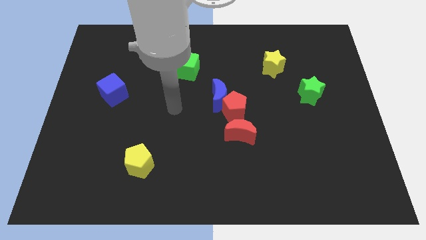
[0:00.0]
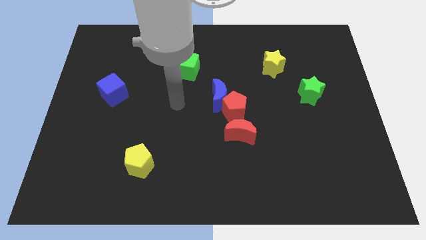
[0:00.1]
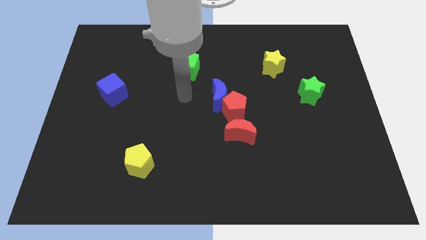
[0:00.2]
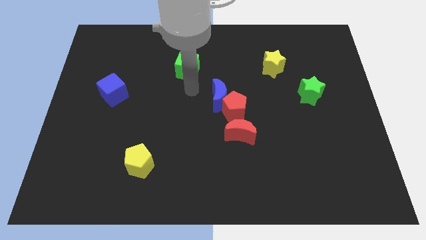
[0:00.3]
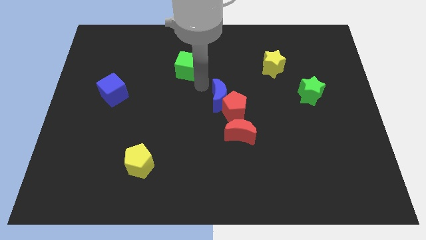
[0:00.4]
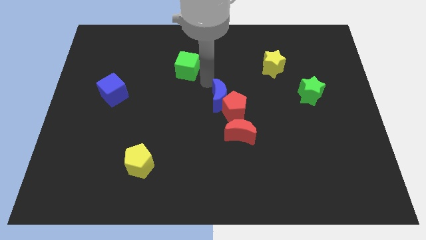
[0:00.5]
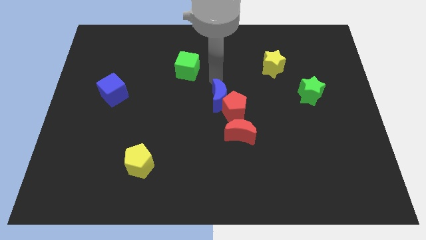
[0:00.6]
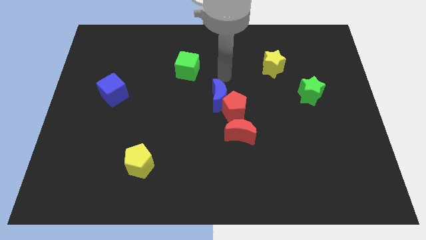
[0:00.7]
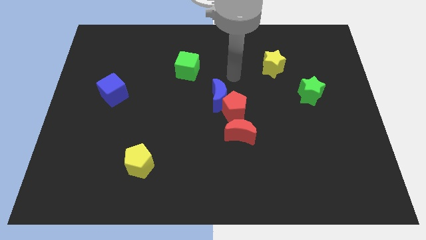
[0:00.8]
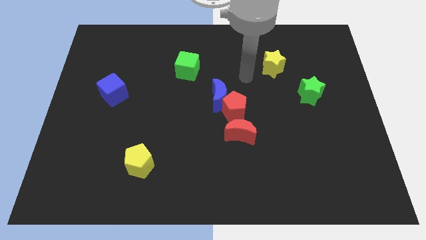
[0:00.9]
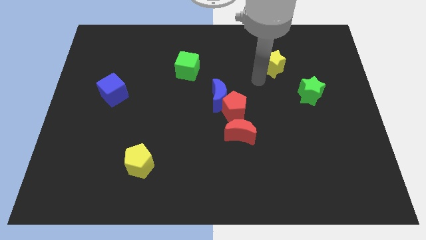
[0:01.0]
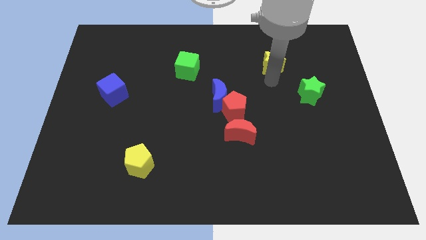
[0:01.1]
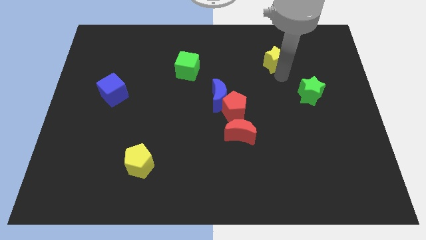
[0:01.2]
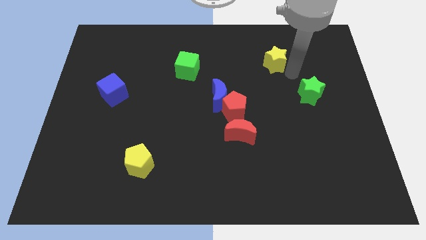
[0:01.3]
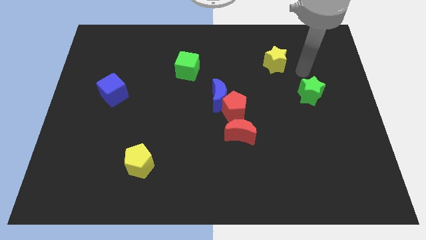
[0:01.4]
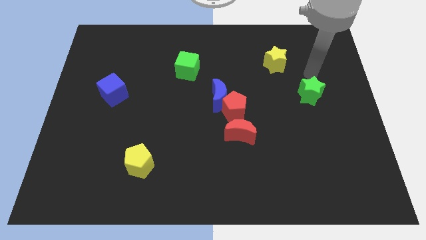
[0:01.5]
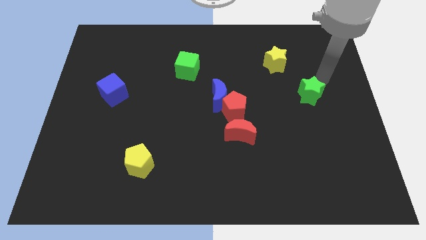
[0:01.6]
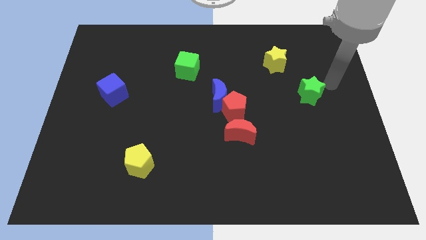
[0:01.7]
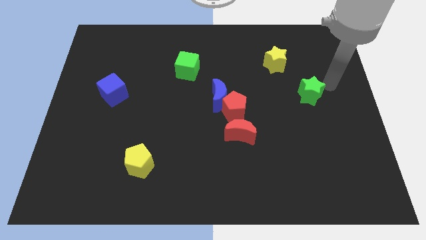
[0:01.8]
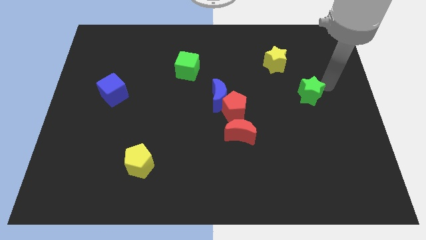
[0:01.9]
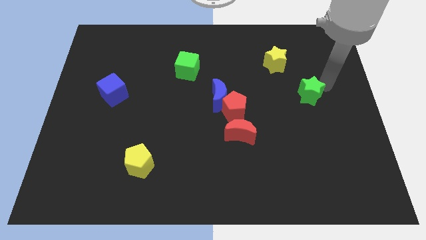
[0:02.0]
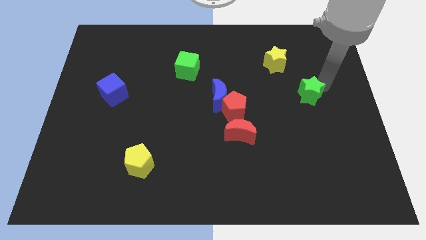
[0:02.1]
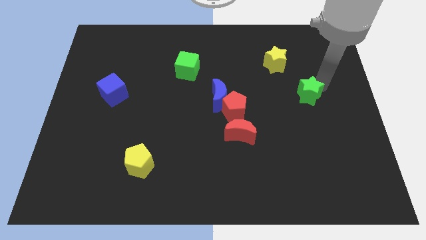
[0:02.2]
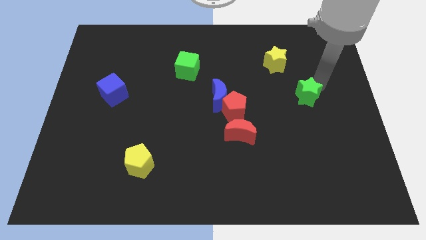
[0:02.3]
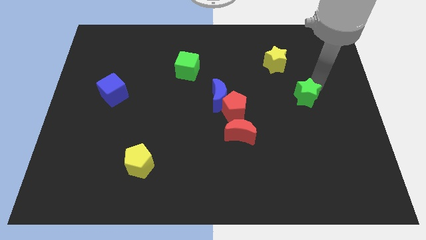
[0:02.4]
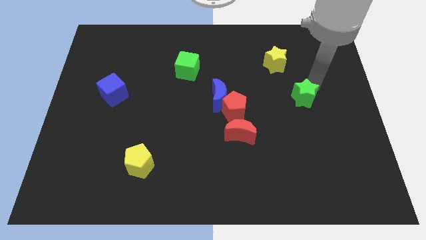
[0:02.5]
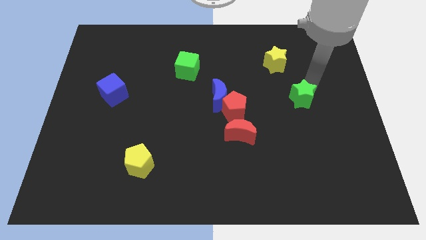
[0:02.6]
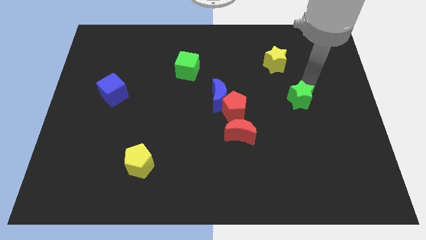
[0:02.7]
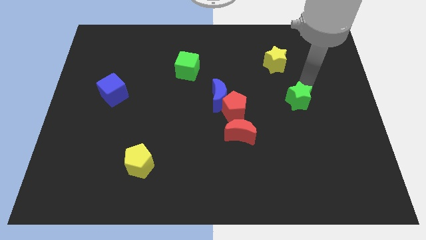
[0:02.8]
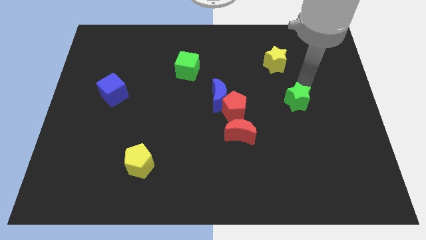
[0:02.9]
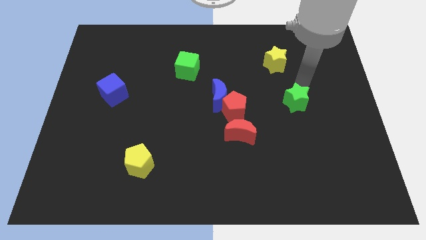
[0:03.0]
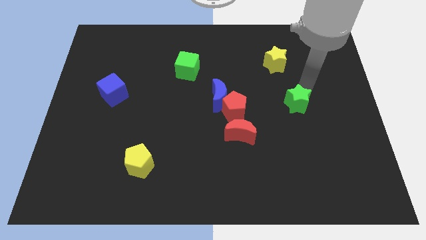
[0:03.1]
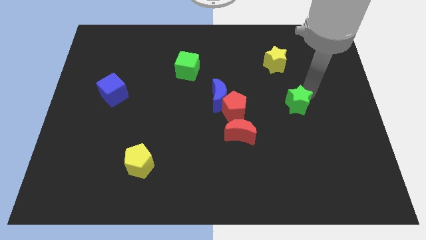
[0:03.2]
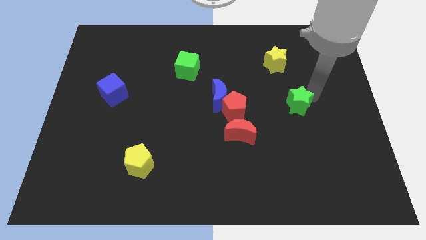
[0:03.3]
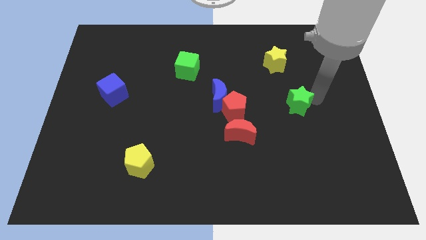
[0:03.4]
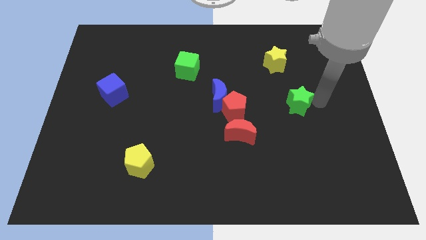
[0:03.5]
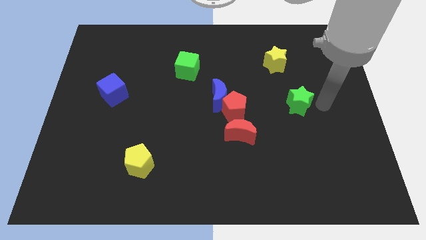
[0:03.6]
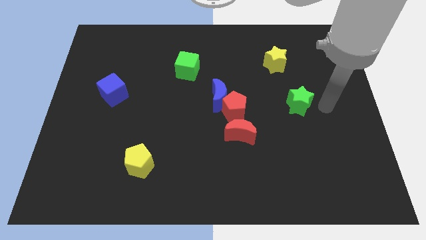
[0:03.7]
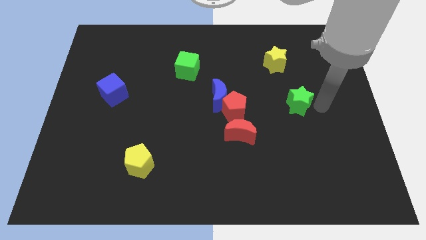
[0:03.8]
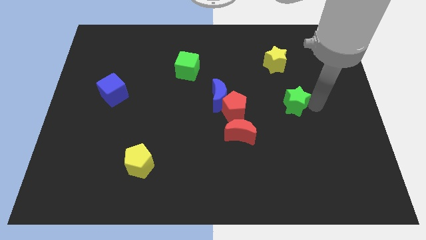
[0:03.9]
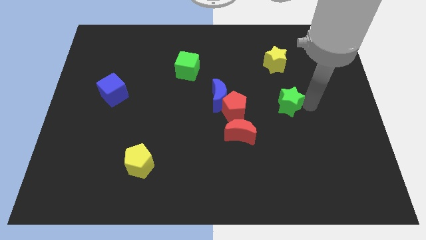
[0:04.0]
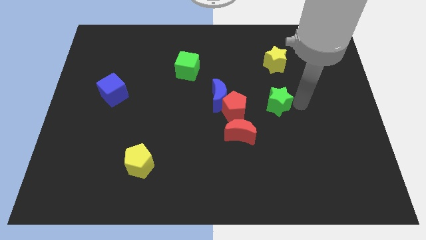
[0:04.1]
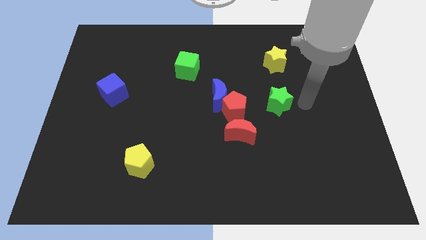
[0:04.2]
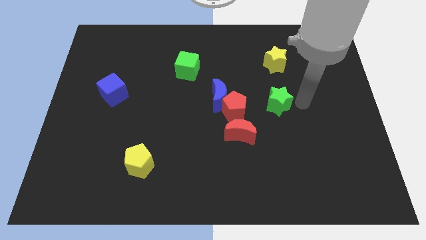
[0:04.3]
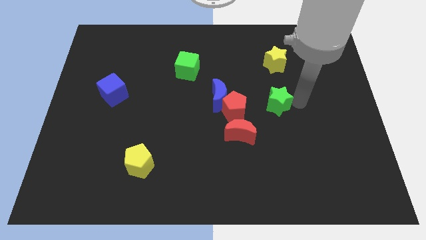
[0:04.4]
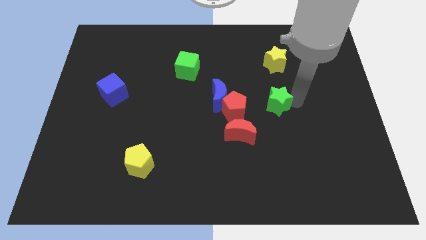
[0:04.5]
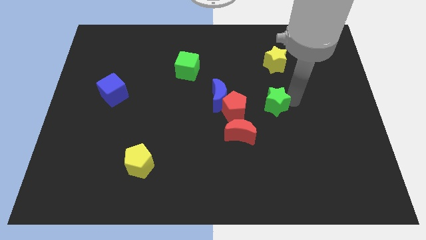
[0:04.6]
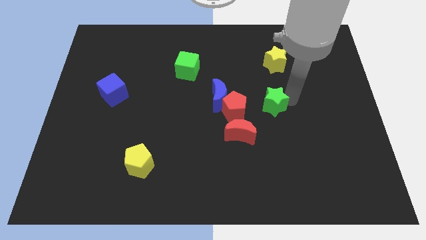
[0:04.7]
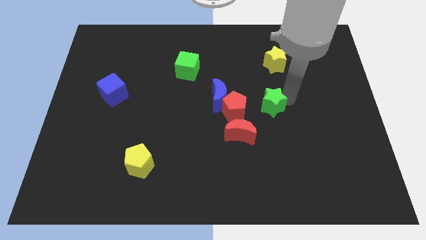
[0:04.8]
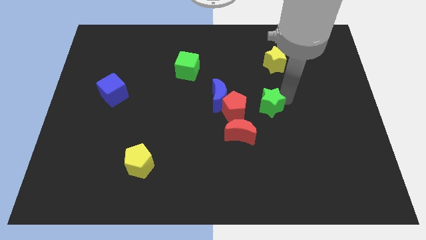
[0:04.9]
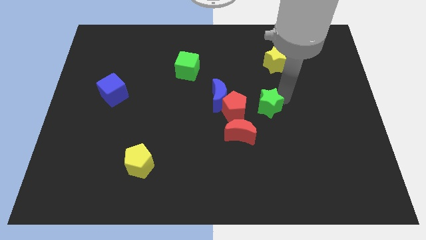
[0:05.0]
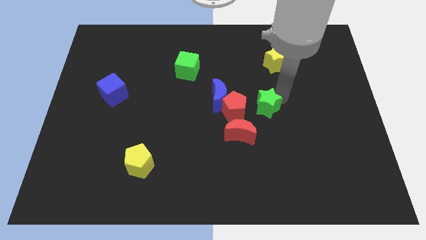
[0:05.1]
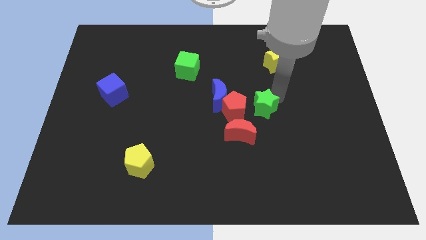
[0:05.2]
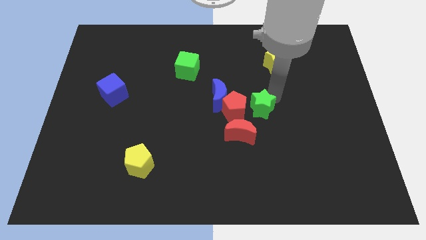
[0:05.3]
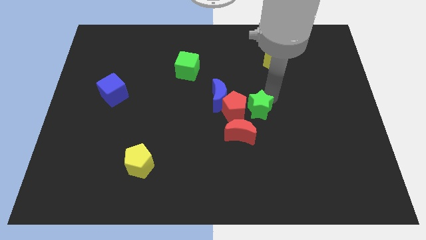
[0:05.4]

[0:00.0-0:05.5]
slide the green star towards the red pentagon

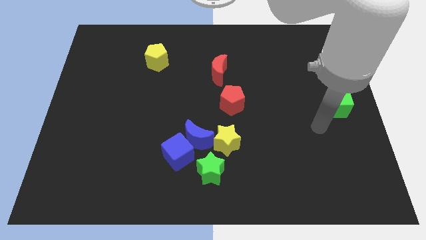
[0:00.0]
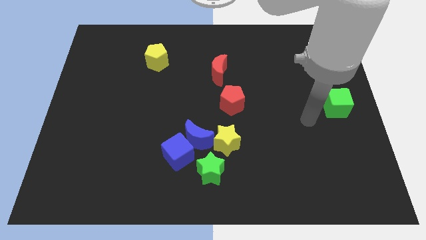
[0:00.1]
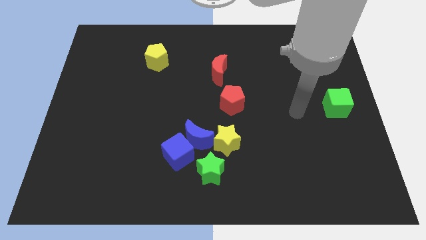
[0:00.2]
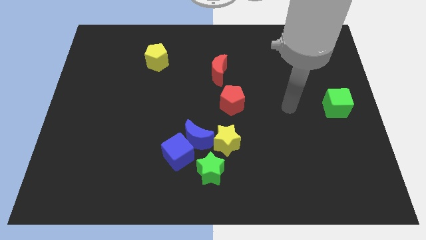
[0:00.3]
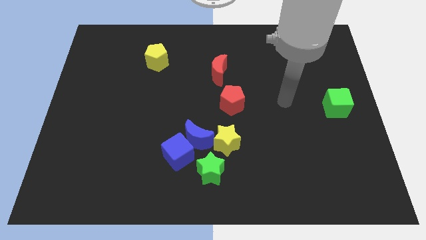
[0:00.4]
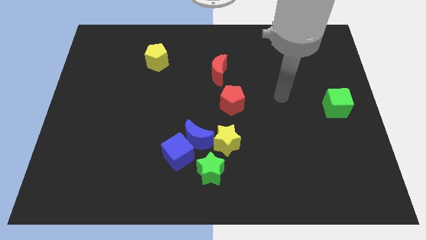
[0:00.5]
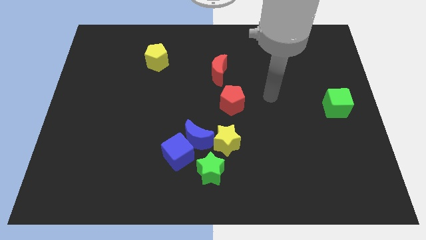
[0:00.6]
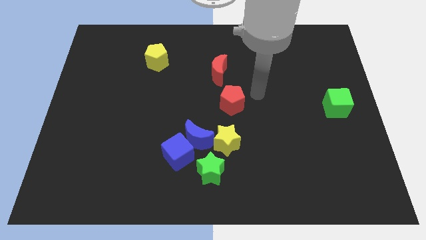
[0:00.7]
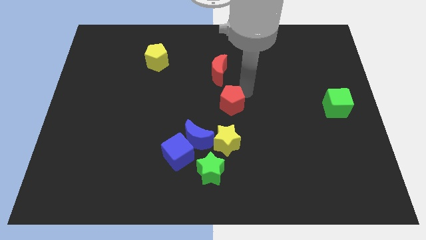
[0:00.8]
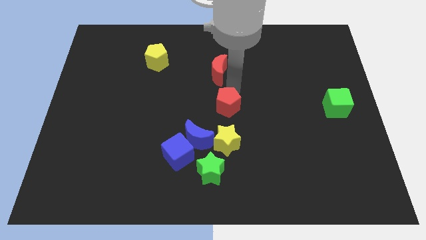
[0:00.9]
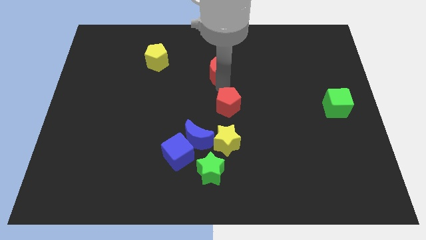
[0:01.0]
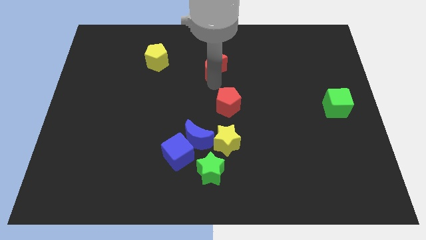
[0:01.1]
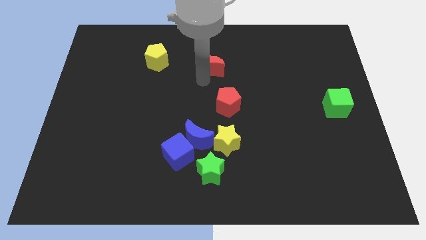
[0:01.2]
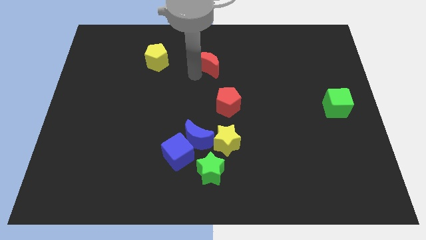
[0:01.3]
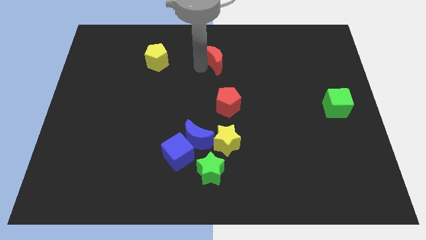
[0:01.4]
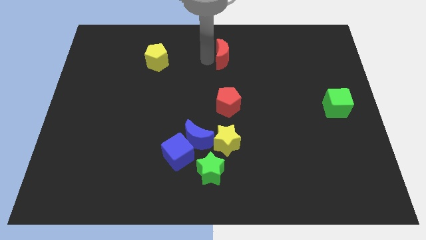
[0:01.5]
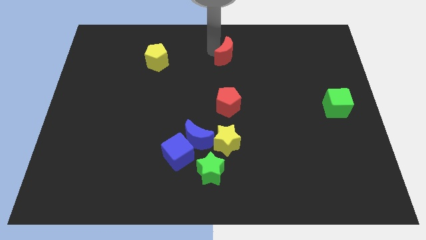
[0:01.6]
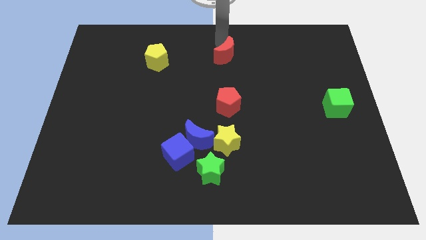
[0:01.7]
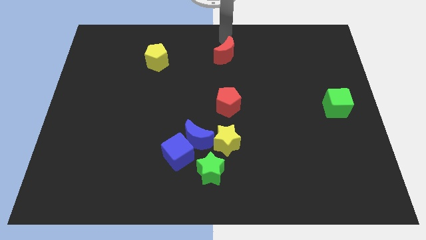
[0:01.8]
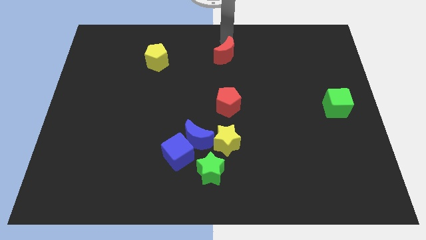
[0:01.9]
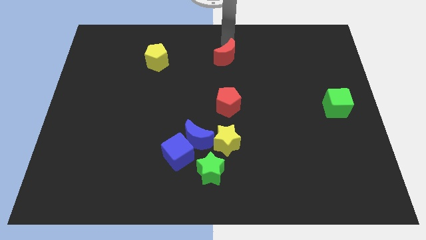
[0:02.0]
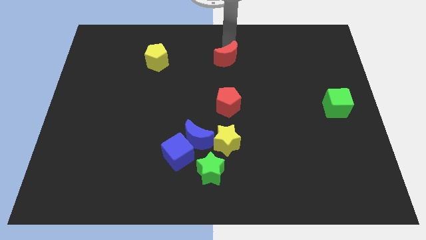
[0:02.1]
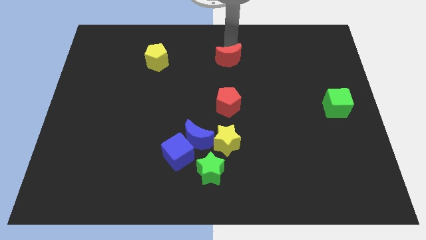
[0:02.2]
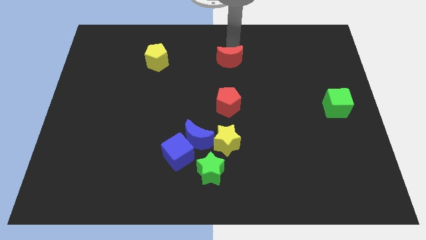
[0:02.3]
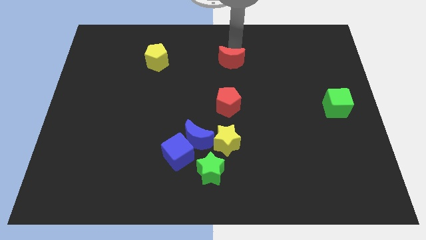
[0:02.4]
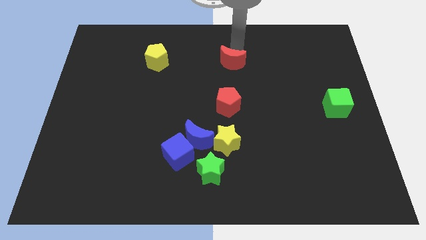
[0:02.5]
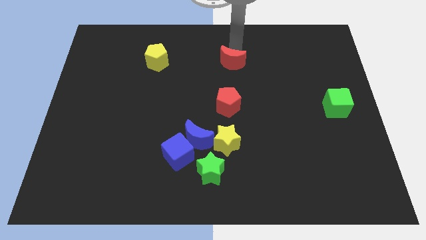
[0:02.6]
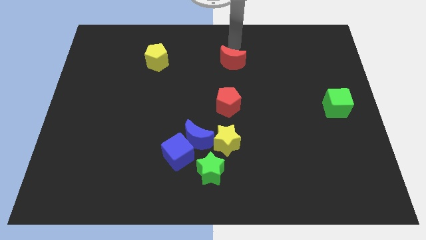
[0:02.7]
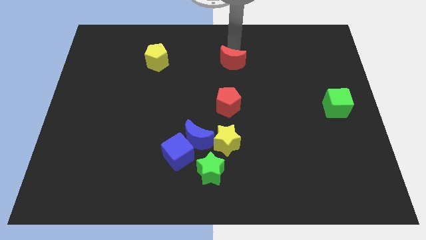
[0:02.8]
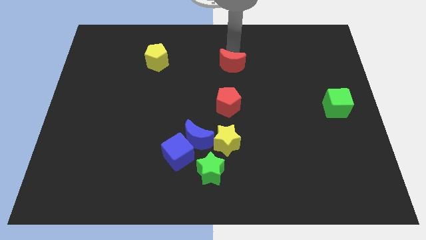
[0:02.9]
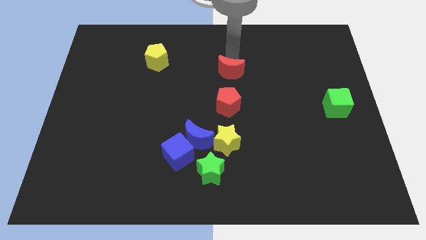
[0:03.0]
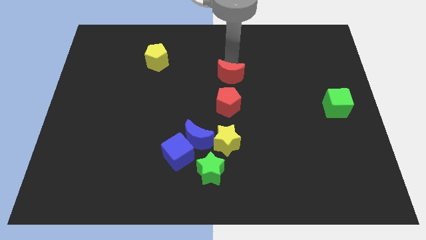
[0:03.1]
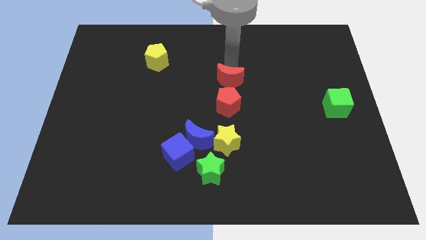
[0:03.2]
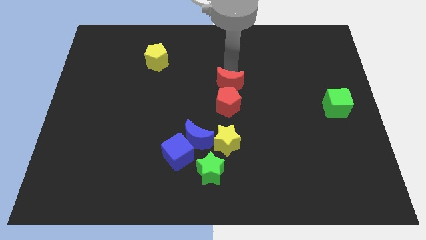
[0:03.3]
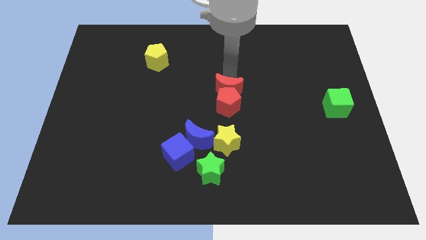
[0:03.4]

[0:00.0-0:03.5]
slide the red moon next to the red pentagon
